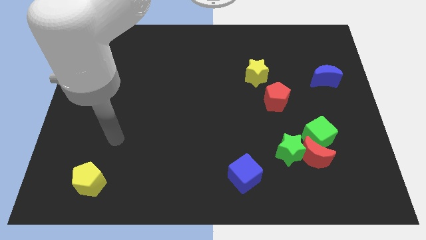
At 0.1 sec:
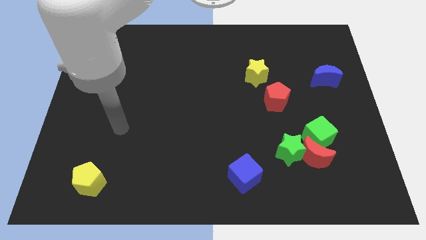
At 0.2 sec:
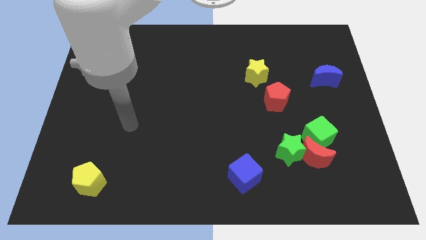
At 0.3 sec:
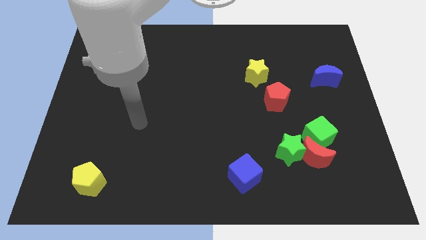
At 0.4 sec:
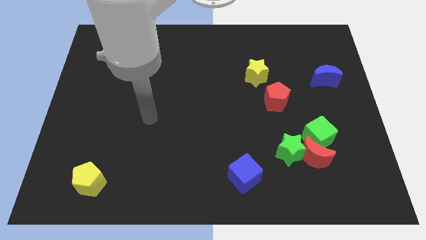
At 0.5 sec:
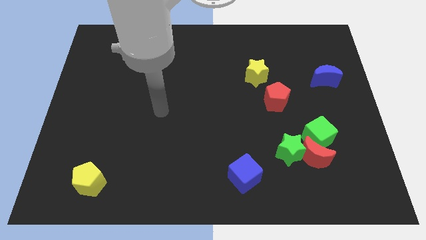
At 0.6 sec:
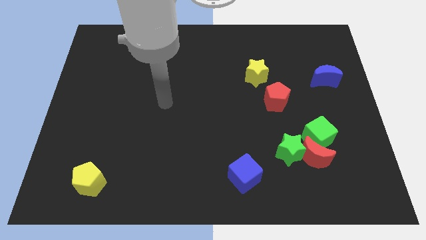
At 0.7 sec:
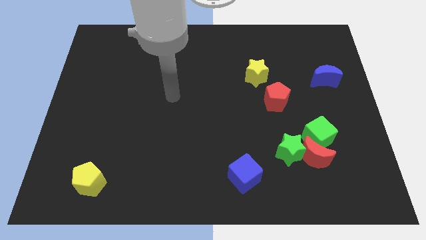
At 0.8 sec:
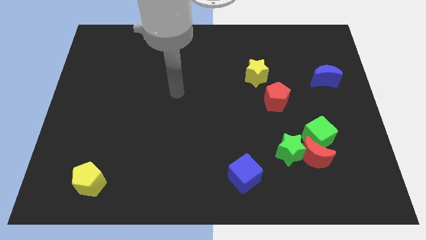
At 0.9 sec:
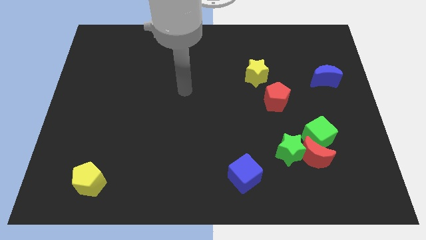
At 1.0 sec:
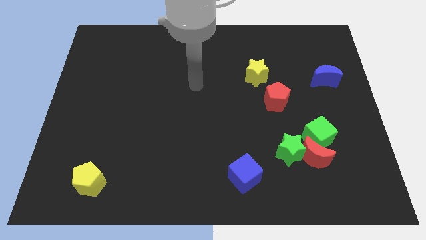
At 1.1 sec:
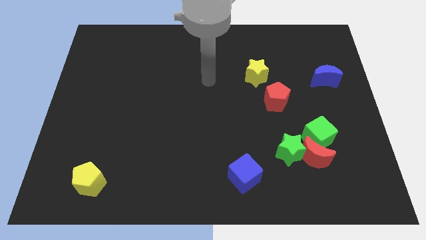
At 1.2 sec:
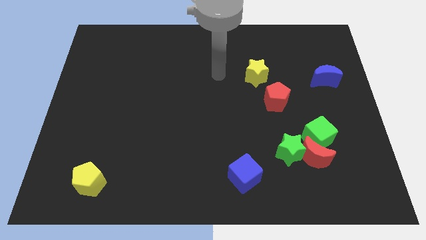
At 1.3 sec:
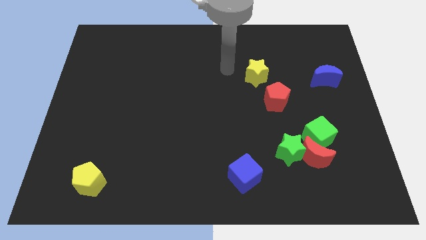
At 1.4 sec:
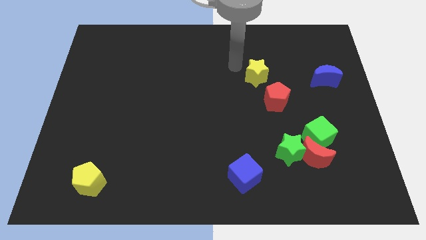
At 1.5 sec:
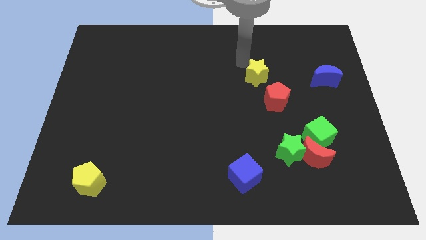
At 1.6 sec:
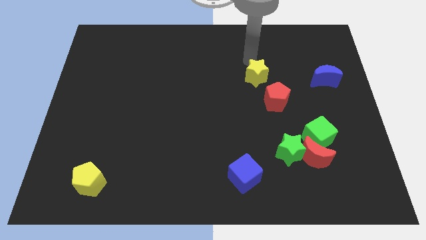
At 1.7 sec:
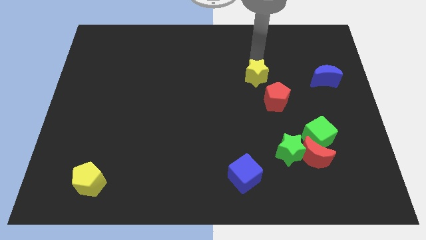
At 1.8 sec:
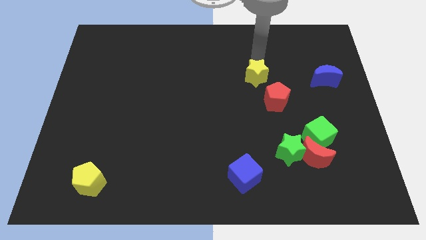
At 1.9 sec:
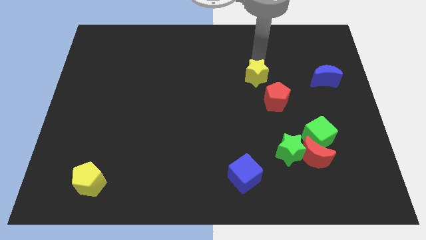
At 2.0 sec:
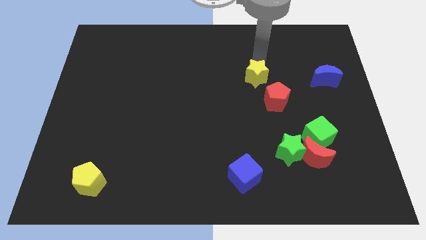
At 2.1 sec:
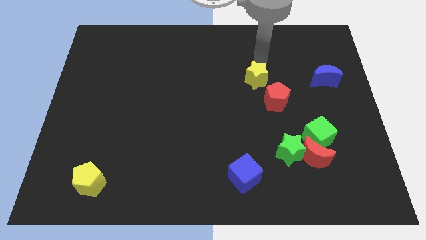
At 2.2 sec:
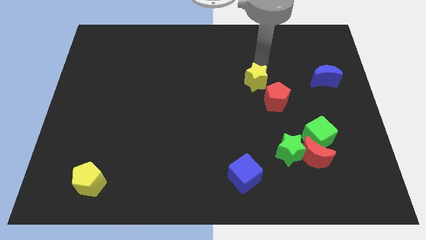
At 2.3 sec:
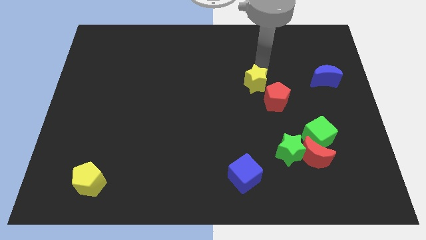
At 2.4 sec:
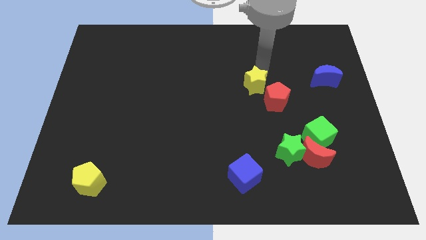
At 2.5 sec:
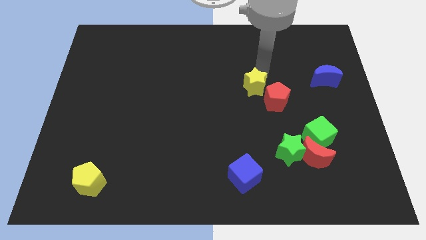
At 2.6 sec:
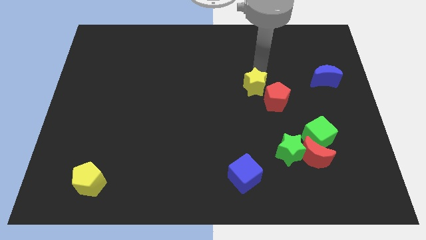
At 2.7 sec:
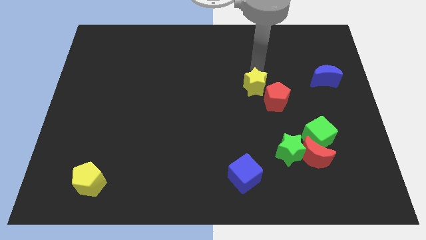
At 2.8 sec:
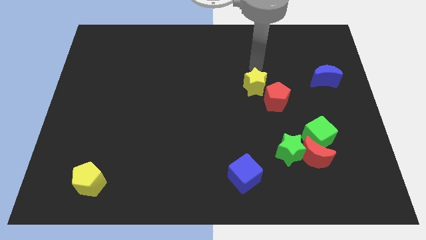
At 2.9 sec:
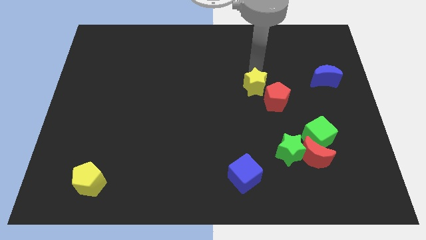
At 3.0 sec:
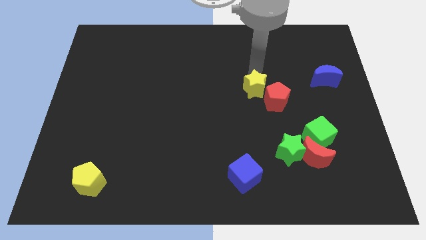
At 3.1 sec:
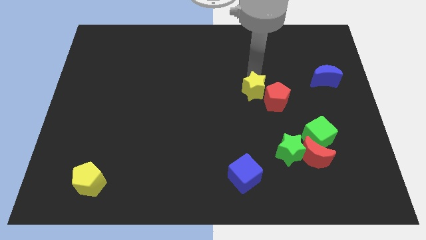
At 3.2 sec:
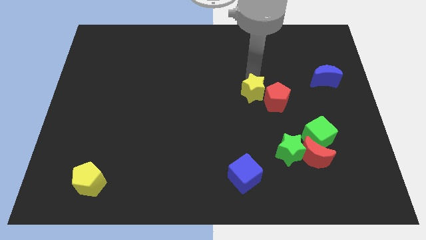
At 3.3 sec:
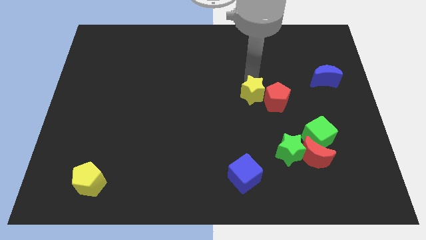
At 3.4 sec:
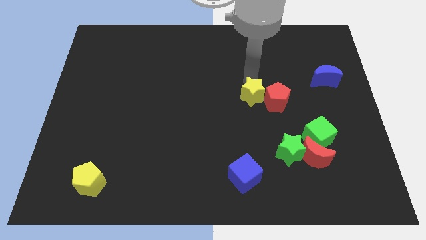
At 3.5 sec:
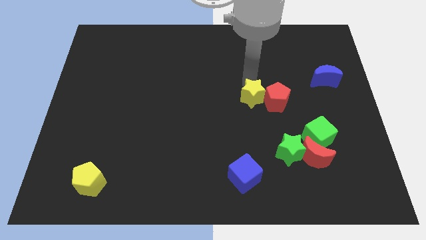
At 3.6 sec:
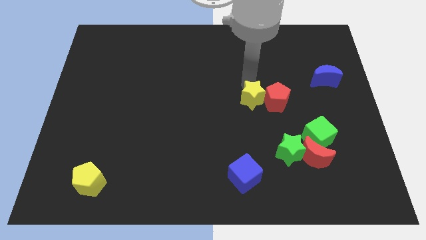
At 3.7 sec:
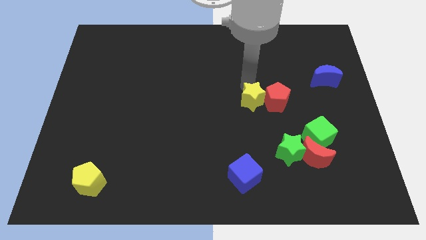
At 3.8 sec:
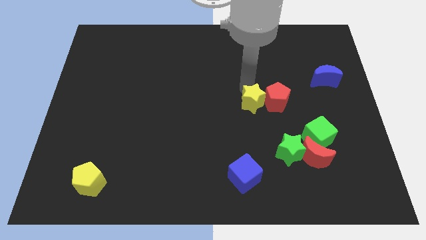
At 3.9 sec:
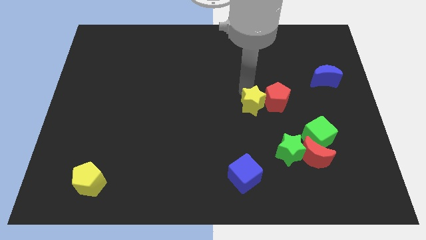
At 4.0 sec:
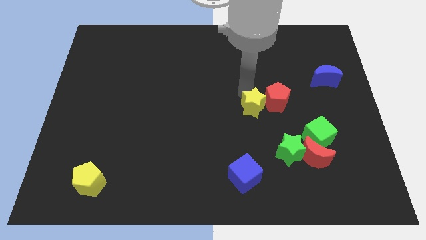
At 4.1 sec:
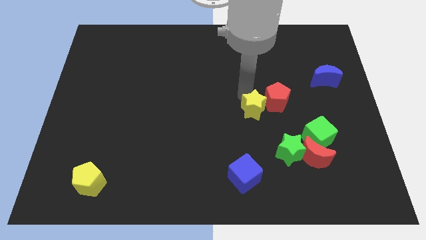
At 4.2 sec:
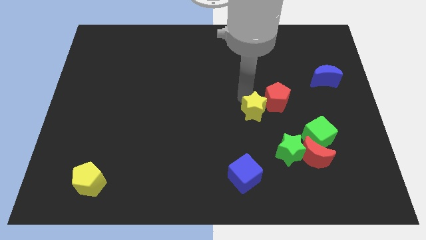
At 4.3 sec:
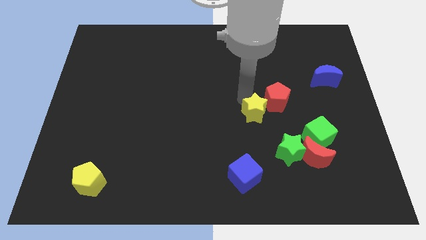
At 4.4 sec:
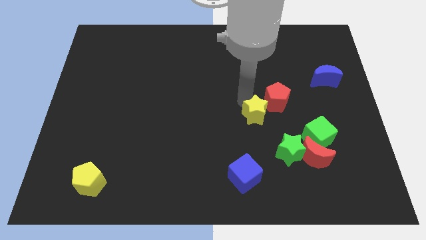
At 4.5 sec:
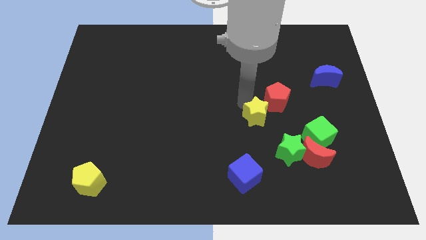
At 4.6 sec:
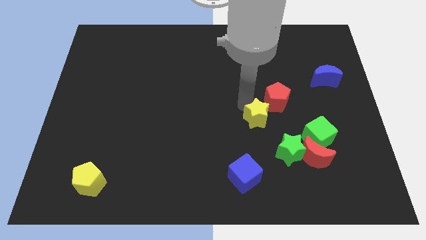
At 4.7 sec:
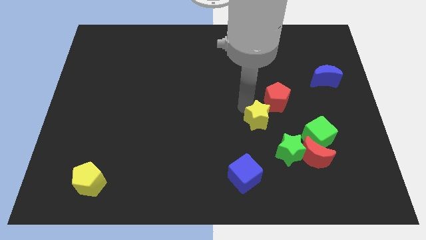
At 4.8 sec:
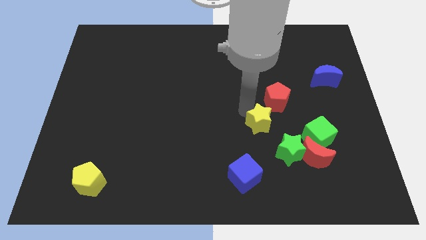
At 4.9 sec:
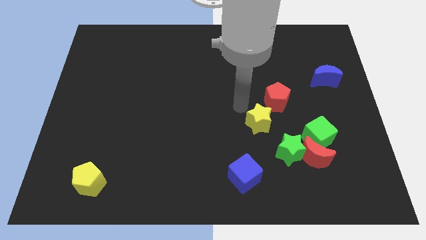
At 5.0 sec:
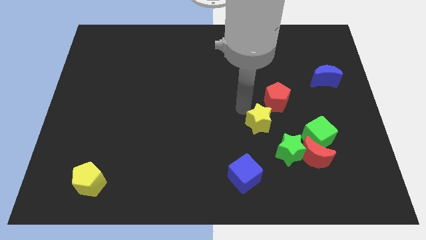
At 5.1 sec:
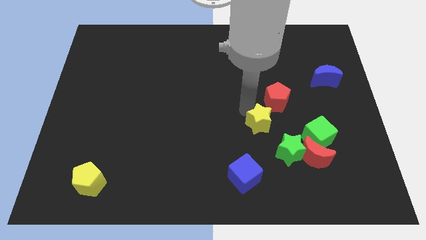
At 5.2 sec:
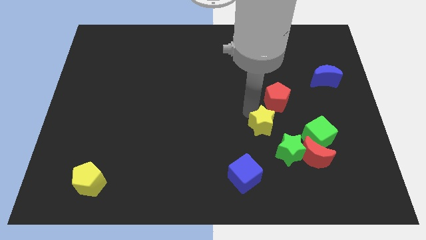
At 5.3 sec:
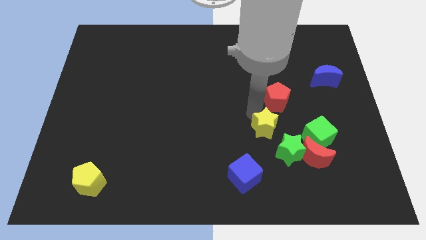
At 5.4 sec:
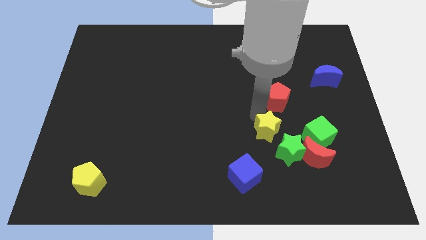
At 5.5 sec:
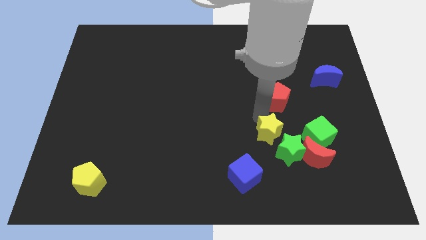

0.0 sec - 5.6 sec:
move the yellow star towards the green star

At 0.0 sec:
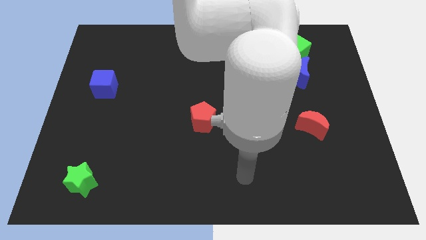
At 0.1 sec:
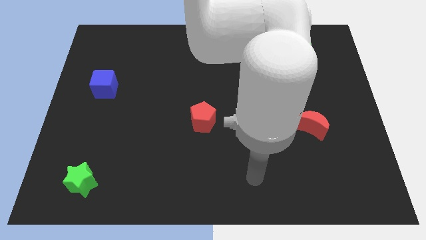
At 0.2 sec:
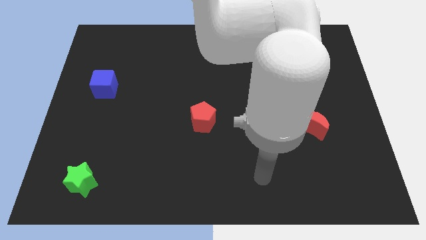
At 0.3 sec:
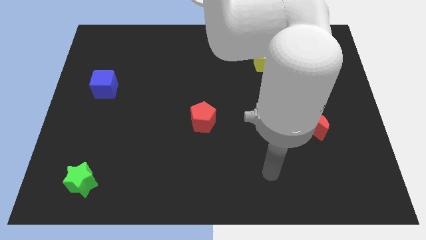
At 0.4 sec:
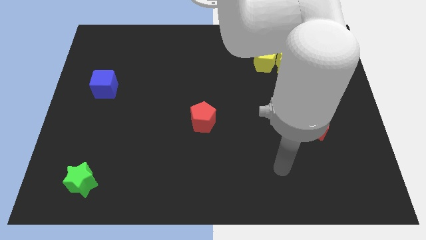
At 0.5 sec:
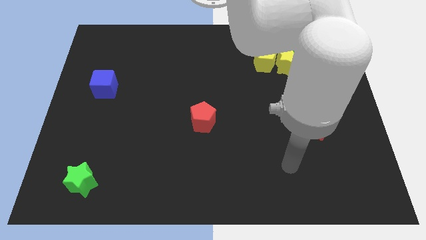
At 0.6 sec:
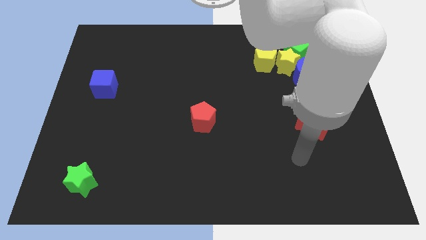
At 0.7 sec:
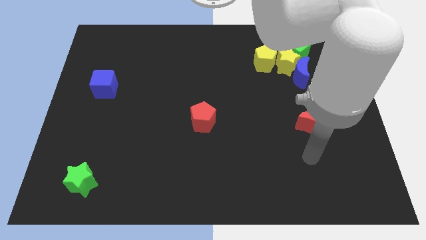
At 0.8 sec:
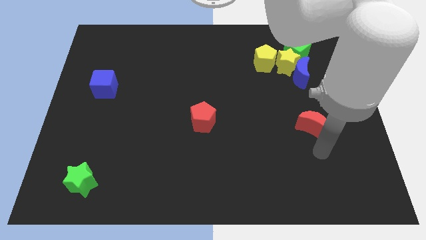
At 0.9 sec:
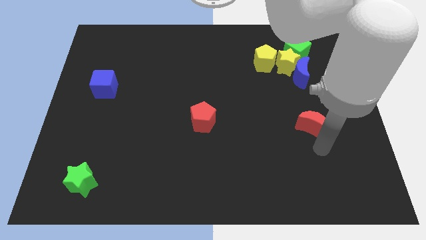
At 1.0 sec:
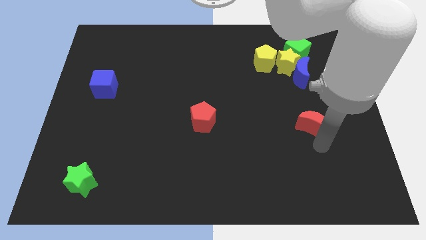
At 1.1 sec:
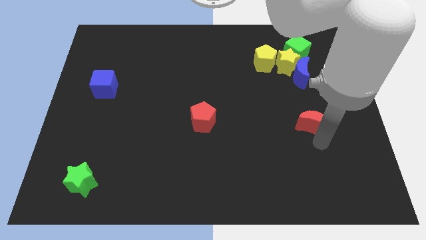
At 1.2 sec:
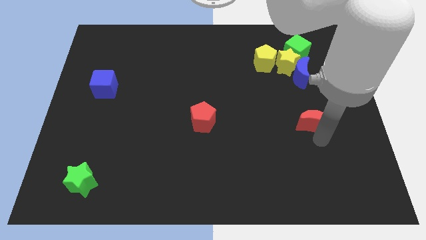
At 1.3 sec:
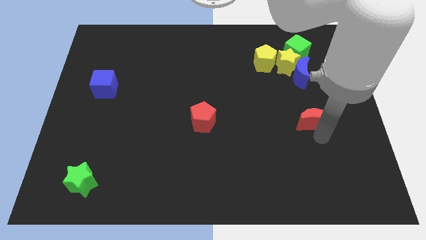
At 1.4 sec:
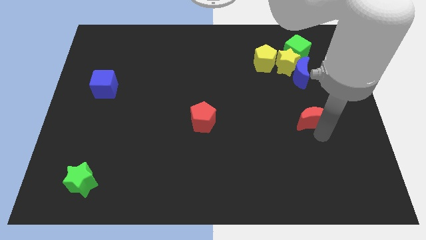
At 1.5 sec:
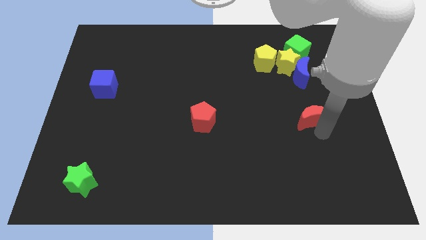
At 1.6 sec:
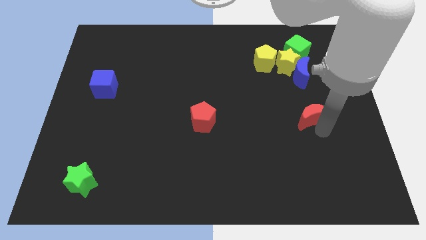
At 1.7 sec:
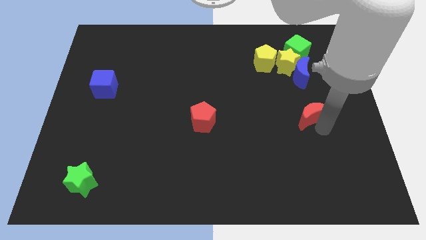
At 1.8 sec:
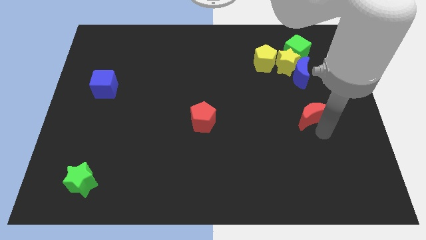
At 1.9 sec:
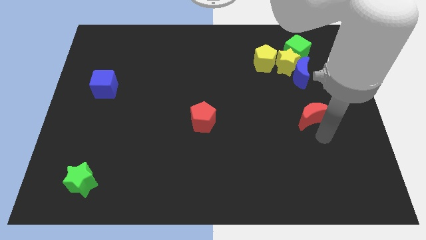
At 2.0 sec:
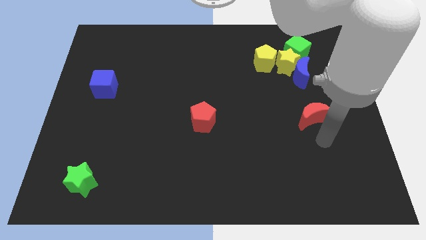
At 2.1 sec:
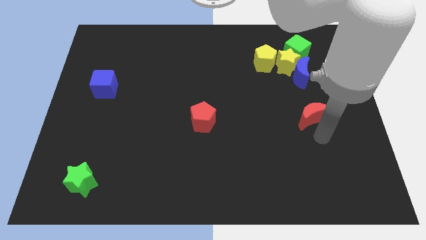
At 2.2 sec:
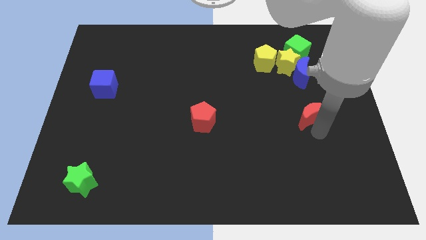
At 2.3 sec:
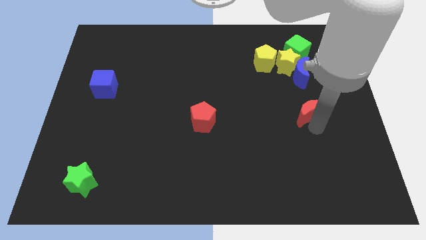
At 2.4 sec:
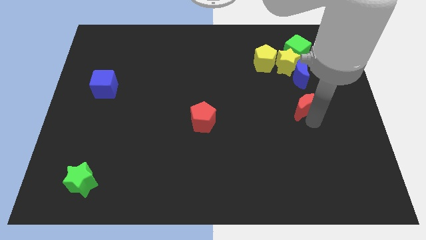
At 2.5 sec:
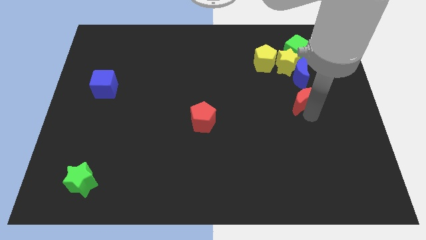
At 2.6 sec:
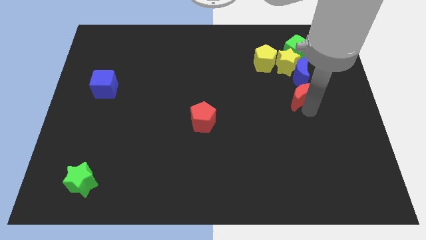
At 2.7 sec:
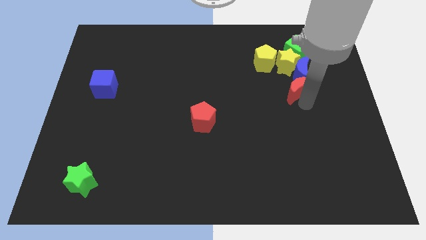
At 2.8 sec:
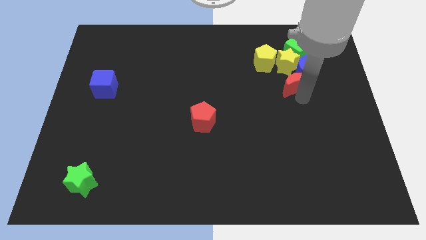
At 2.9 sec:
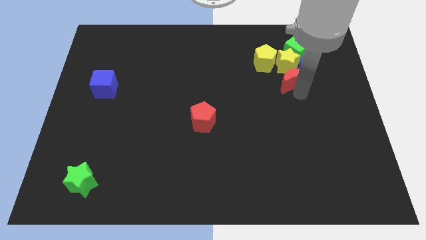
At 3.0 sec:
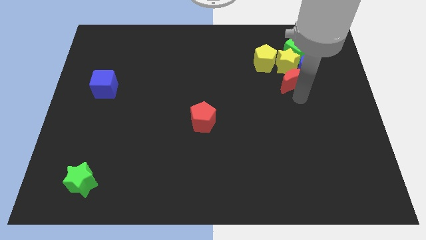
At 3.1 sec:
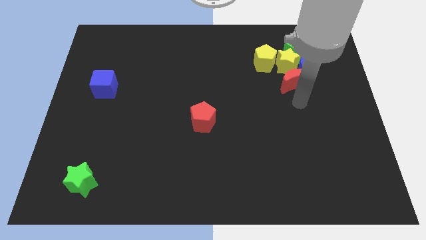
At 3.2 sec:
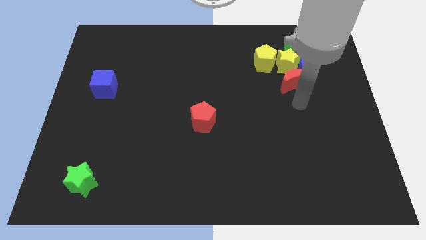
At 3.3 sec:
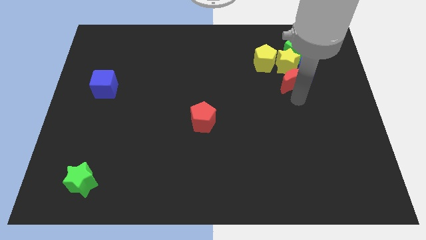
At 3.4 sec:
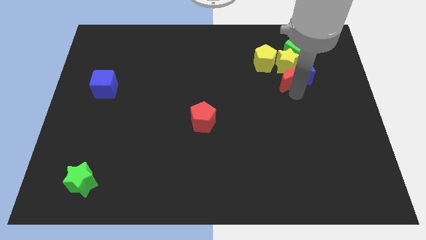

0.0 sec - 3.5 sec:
put the red moon next to the yellow star
